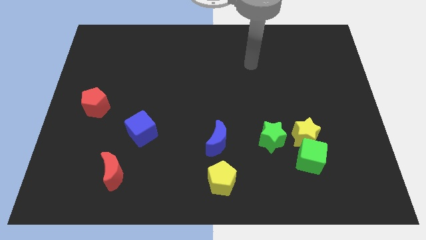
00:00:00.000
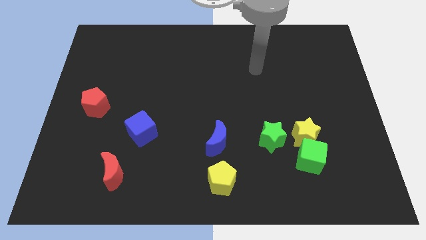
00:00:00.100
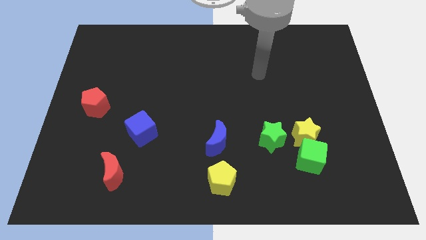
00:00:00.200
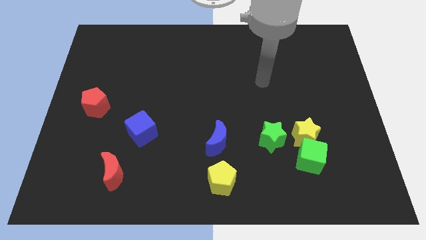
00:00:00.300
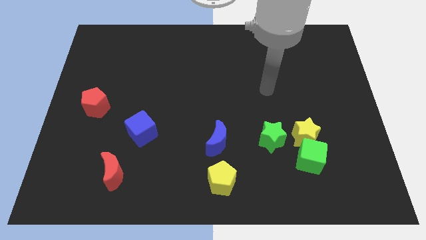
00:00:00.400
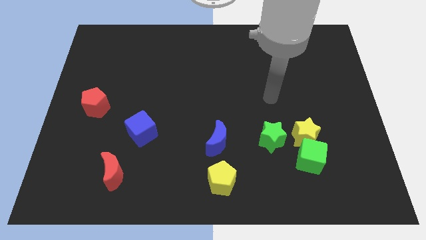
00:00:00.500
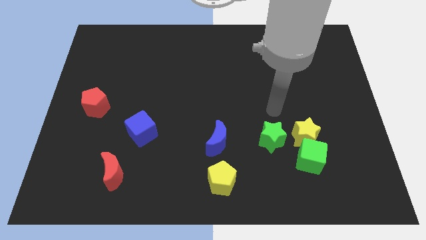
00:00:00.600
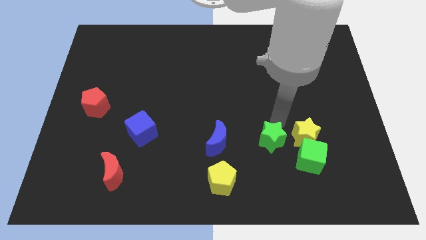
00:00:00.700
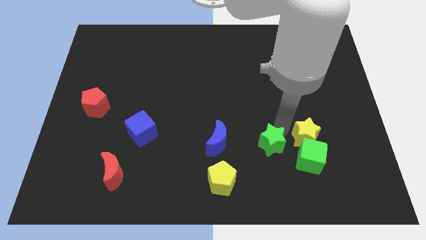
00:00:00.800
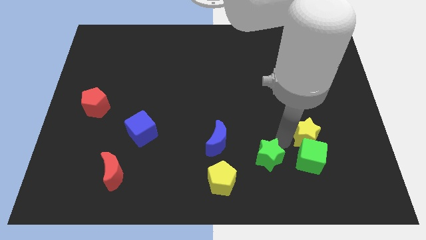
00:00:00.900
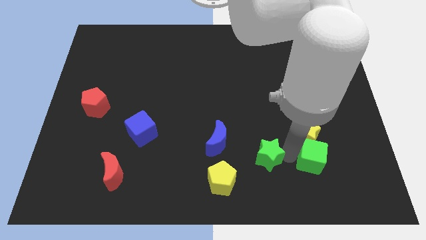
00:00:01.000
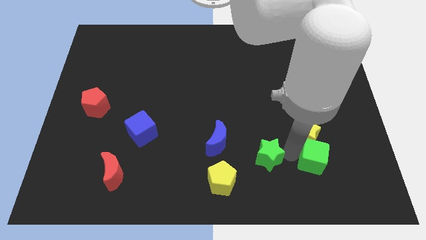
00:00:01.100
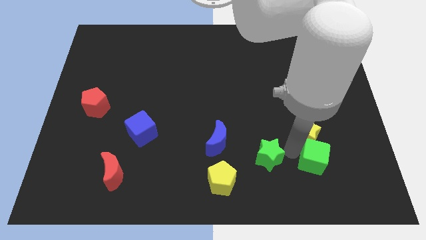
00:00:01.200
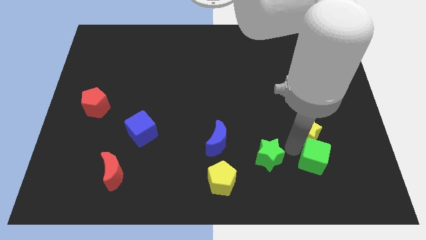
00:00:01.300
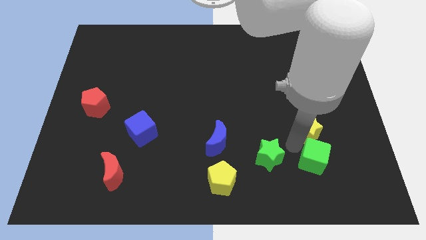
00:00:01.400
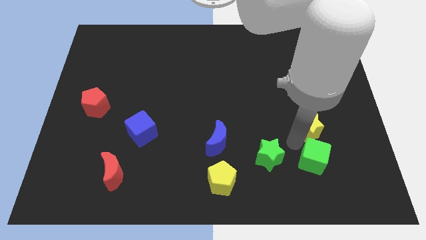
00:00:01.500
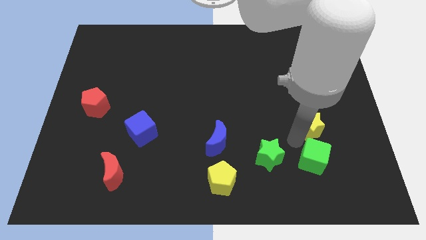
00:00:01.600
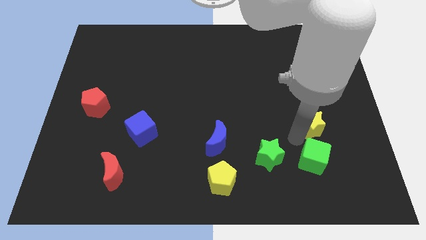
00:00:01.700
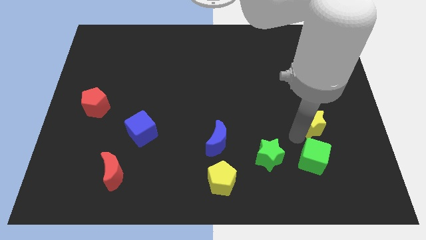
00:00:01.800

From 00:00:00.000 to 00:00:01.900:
move the yellow star away from the green cube and green star

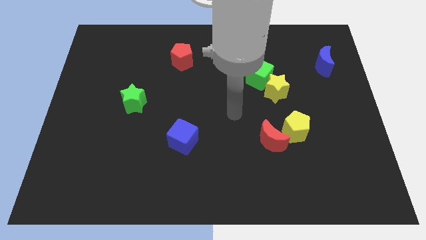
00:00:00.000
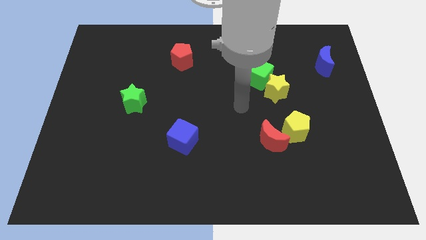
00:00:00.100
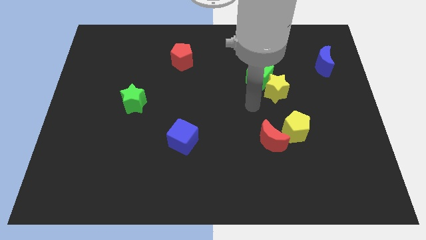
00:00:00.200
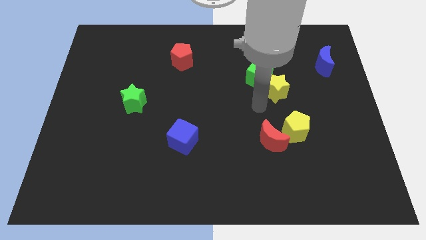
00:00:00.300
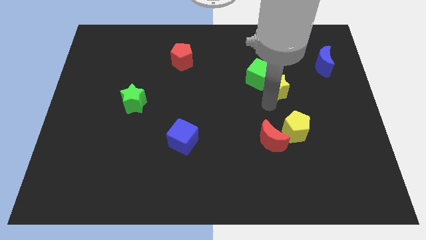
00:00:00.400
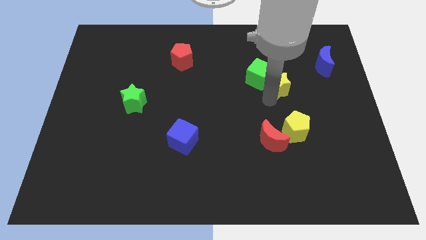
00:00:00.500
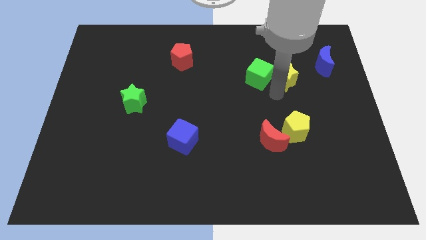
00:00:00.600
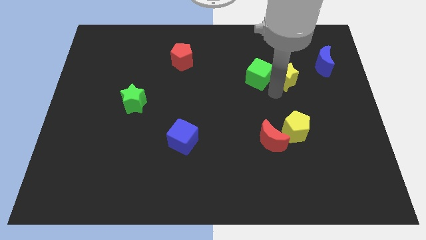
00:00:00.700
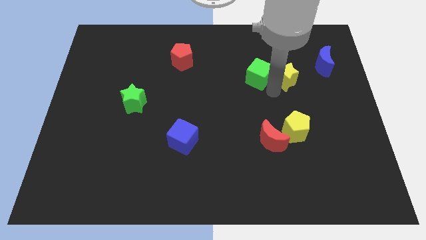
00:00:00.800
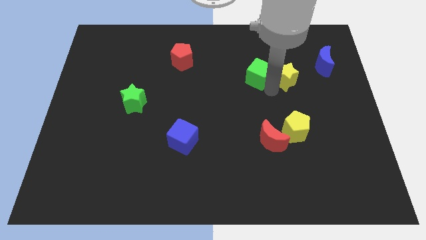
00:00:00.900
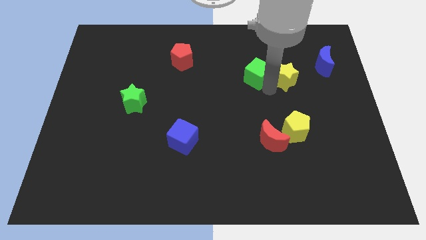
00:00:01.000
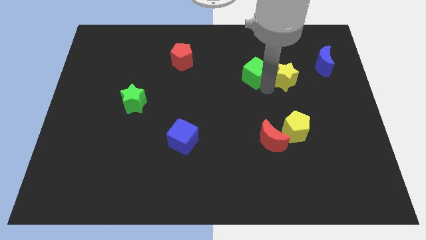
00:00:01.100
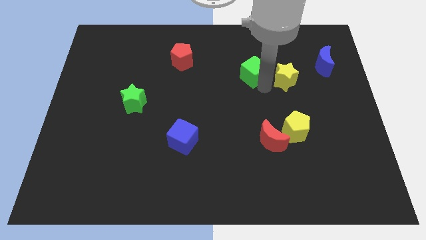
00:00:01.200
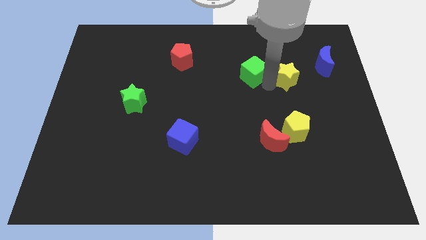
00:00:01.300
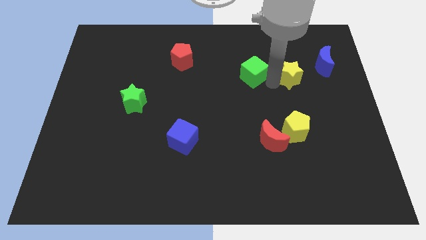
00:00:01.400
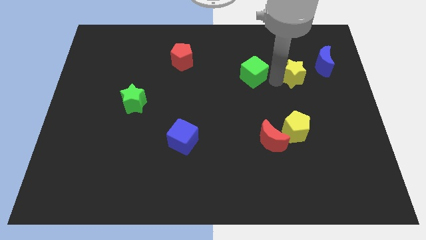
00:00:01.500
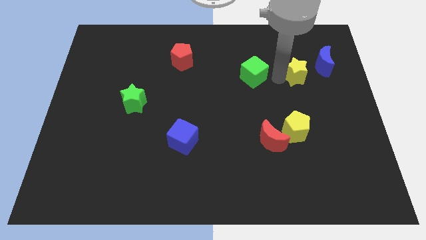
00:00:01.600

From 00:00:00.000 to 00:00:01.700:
separate the green cube from the yellow star

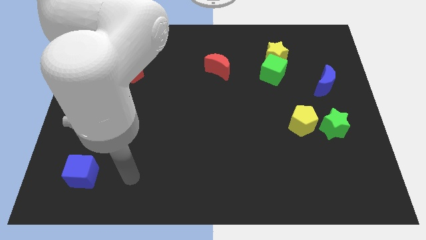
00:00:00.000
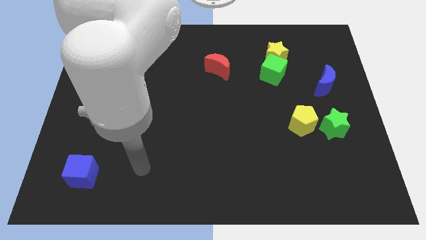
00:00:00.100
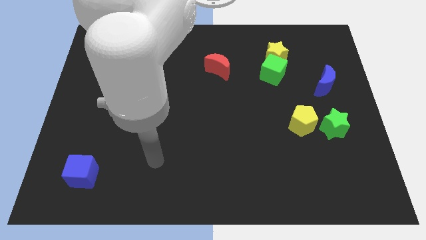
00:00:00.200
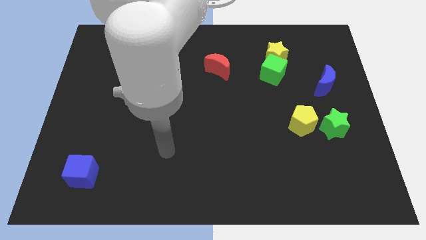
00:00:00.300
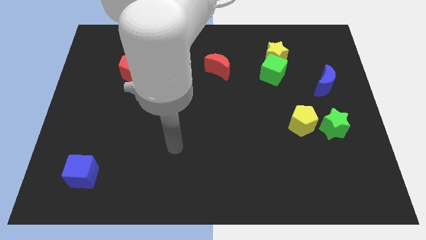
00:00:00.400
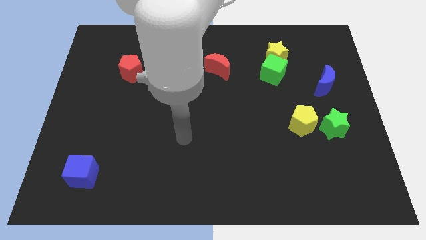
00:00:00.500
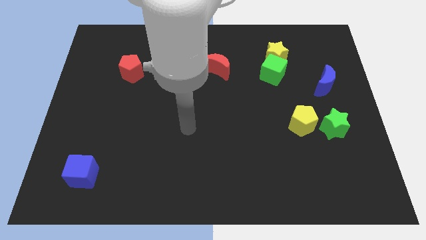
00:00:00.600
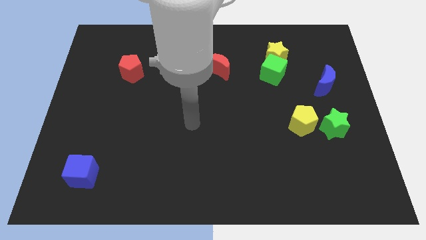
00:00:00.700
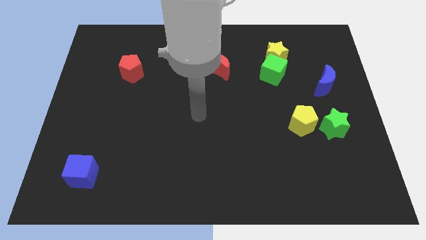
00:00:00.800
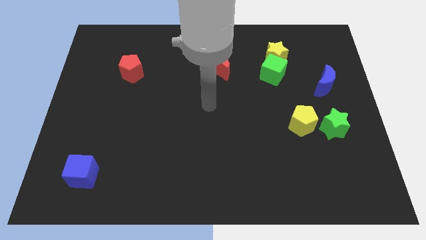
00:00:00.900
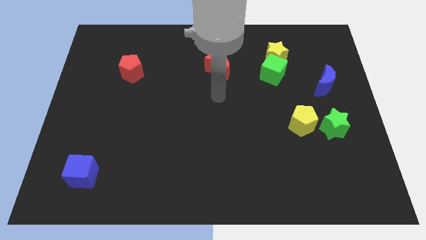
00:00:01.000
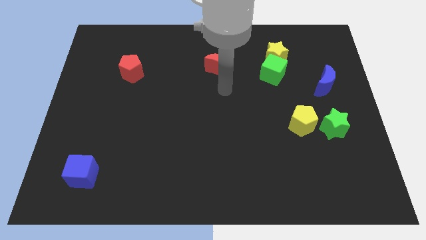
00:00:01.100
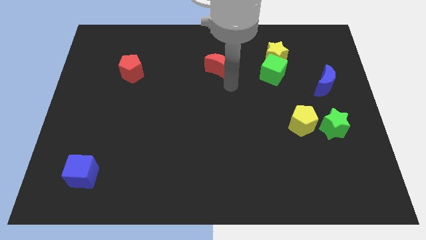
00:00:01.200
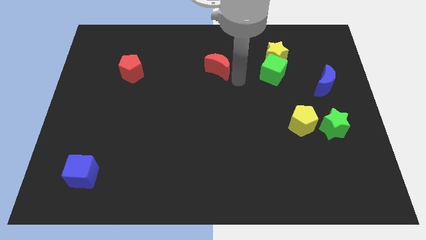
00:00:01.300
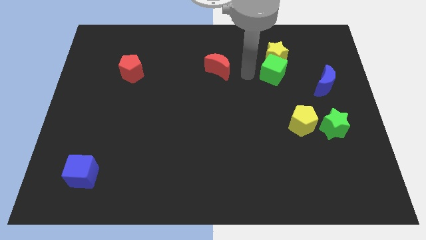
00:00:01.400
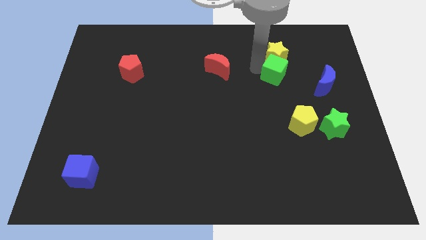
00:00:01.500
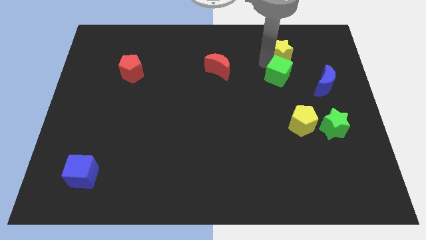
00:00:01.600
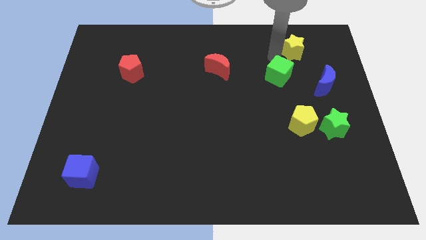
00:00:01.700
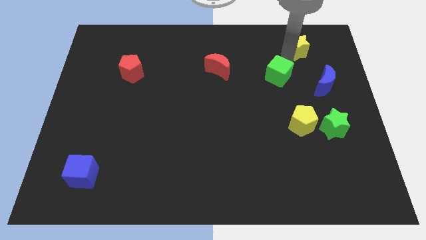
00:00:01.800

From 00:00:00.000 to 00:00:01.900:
pull the green cube apart from the yellow star

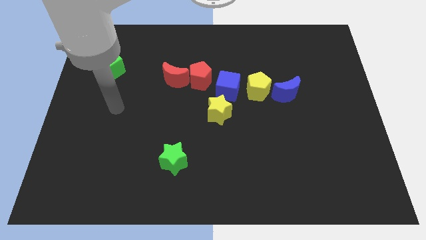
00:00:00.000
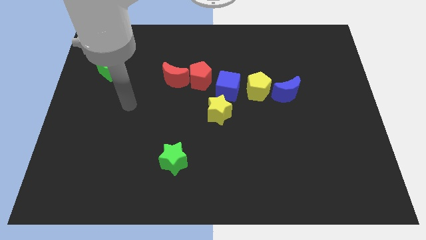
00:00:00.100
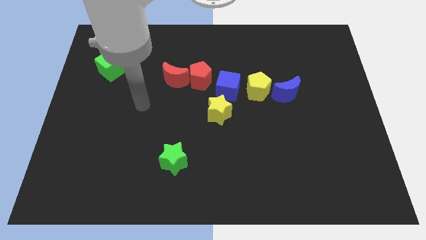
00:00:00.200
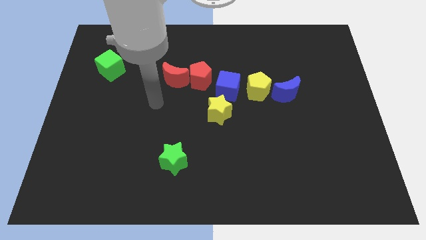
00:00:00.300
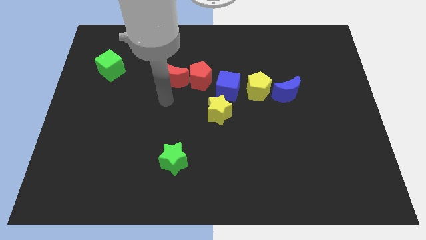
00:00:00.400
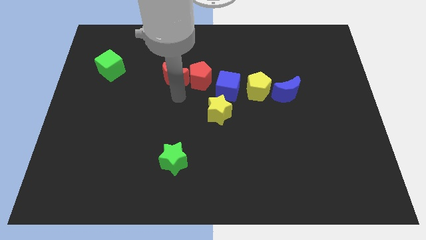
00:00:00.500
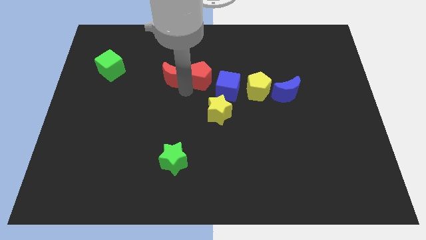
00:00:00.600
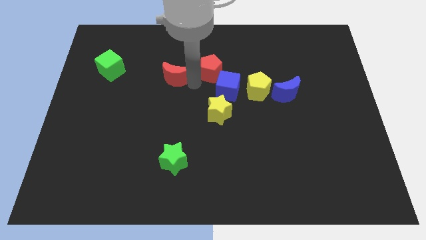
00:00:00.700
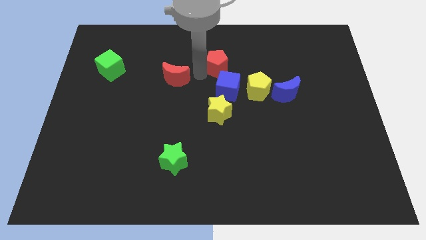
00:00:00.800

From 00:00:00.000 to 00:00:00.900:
move the red moon away from the red pentagon

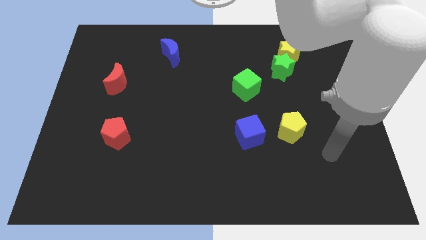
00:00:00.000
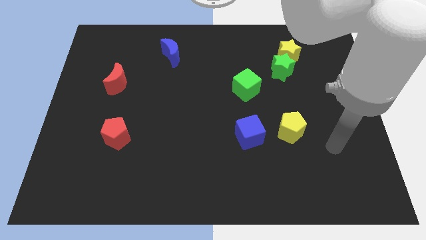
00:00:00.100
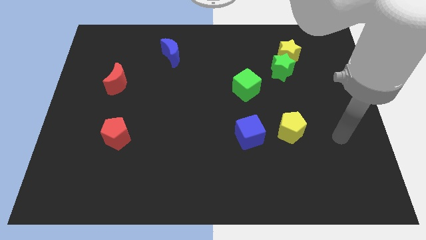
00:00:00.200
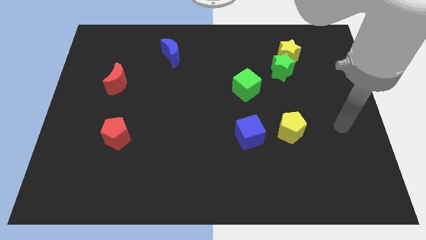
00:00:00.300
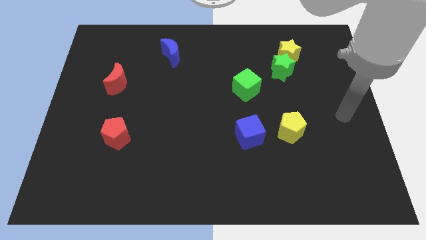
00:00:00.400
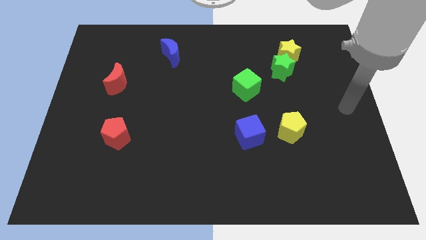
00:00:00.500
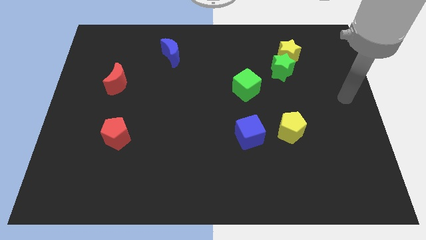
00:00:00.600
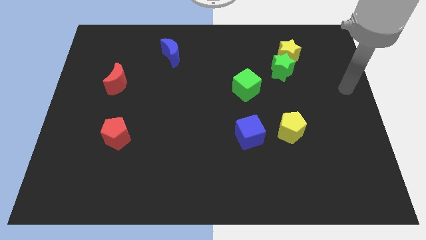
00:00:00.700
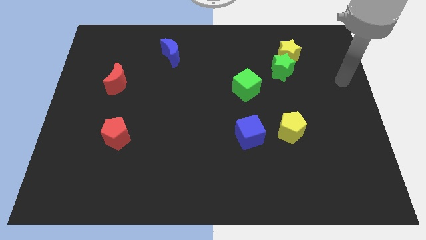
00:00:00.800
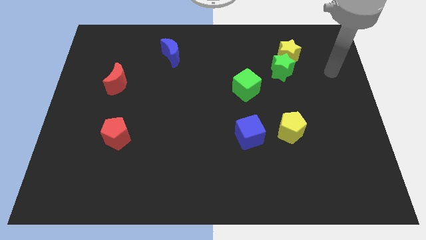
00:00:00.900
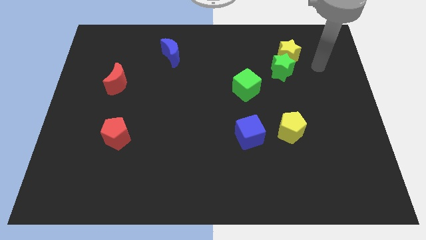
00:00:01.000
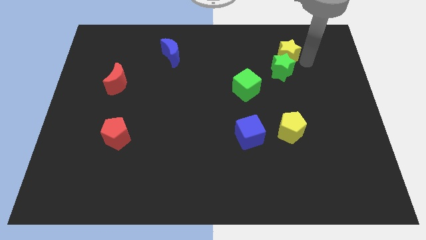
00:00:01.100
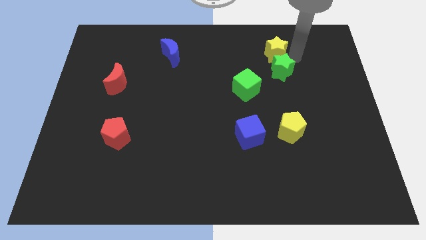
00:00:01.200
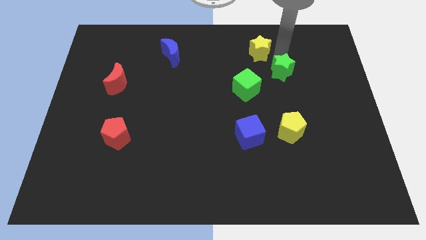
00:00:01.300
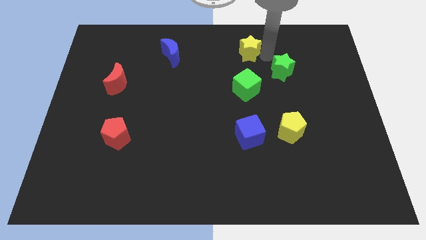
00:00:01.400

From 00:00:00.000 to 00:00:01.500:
pull the green star apart from the yellow star

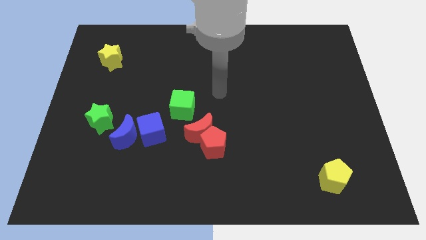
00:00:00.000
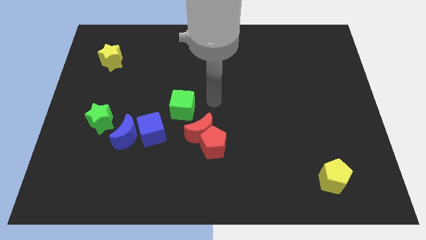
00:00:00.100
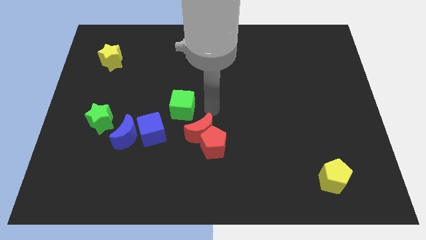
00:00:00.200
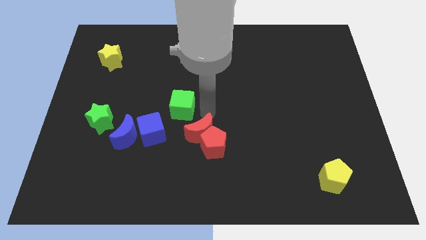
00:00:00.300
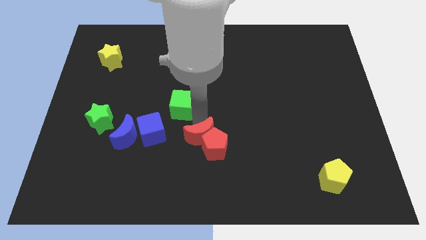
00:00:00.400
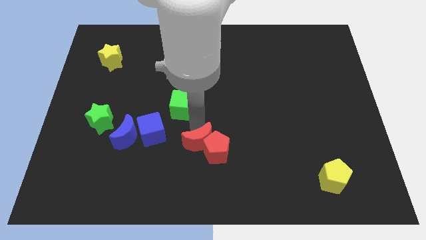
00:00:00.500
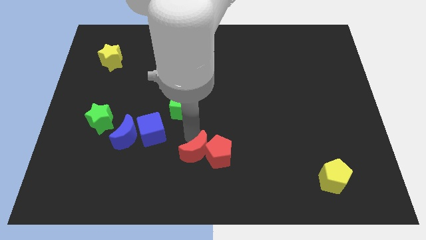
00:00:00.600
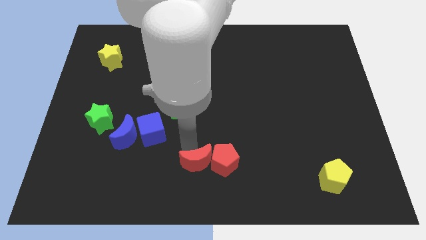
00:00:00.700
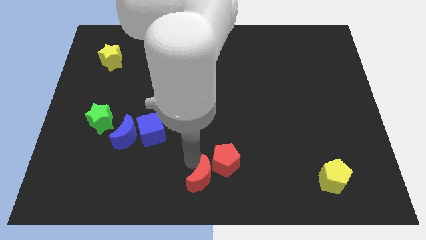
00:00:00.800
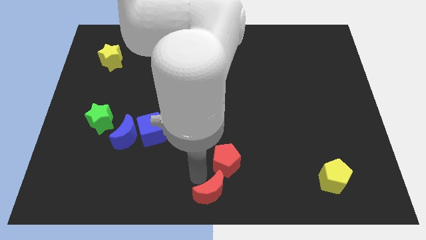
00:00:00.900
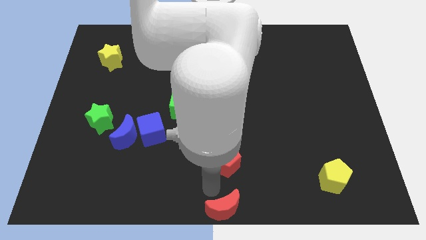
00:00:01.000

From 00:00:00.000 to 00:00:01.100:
separate the red pentagon from the red moon

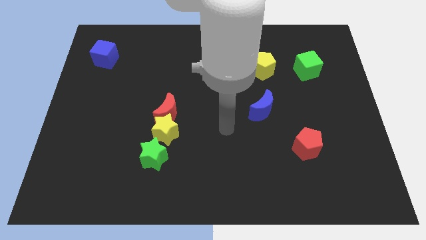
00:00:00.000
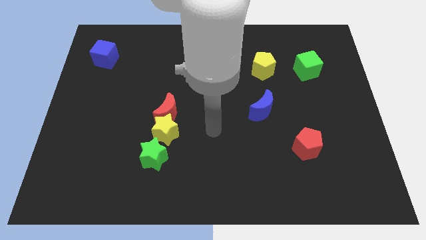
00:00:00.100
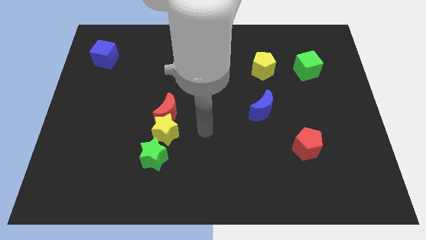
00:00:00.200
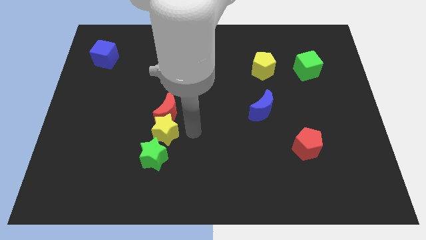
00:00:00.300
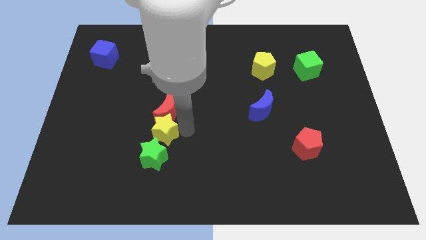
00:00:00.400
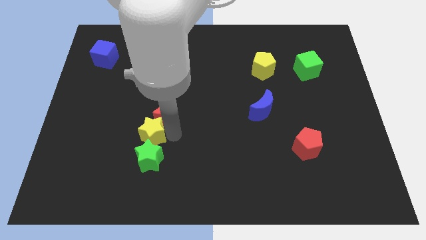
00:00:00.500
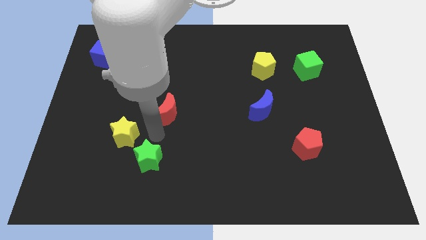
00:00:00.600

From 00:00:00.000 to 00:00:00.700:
move the red moon away from the yellow star
